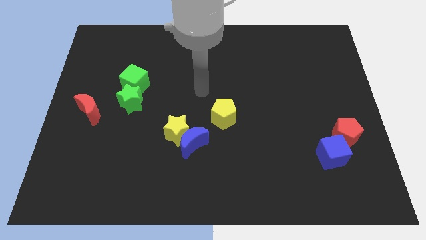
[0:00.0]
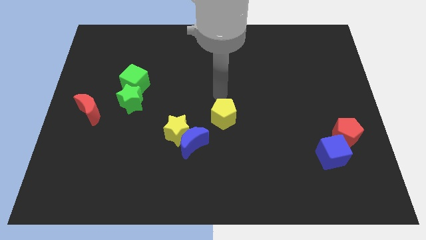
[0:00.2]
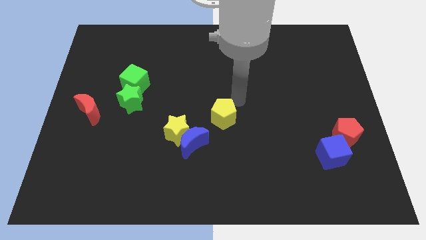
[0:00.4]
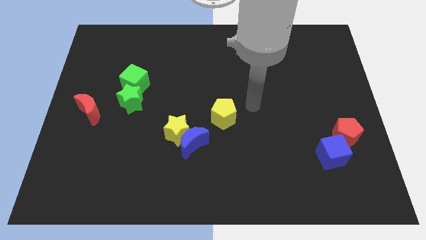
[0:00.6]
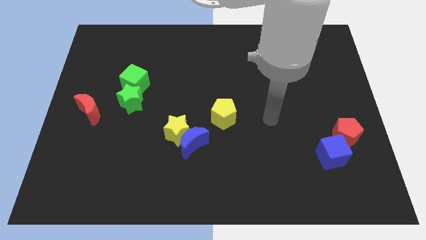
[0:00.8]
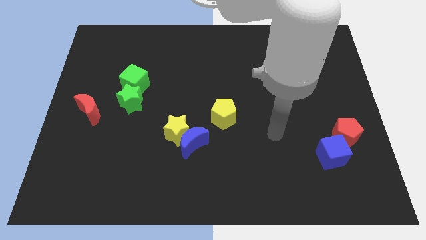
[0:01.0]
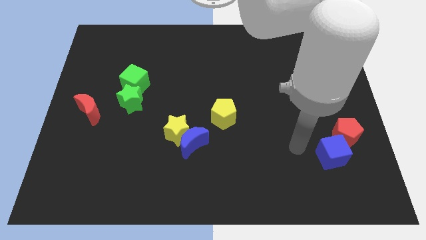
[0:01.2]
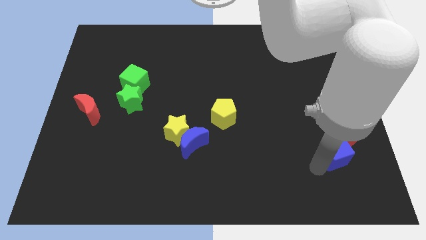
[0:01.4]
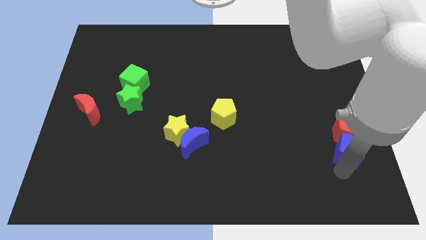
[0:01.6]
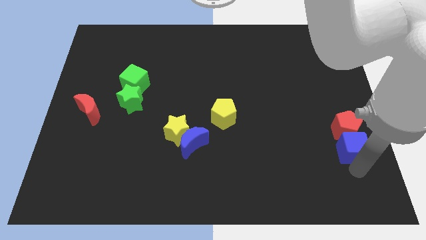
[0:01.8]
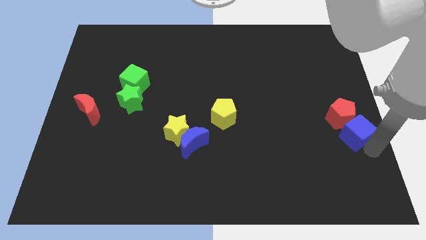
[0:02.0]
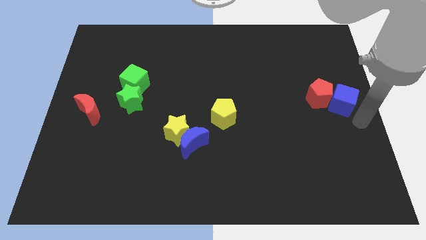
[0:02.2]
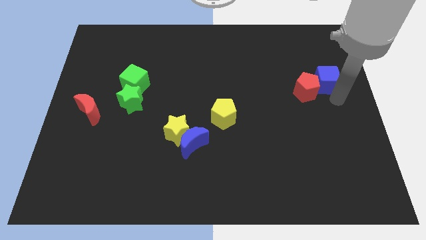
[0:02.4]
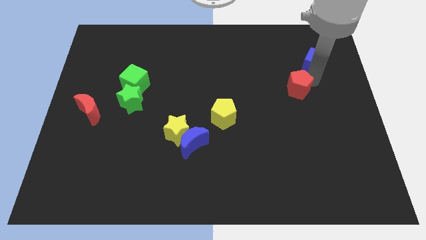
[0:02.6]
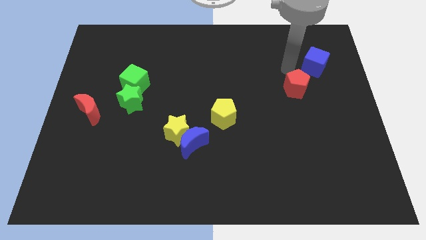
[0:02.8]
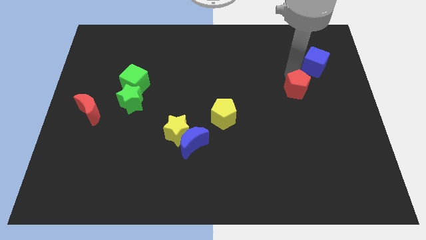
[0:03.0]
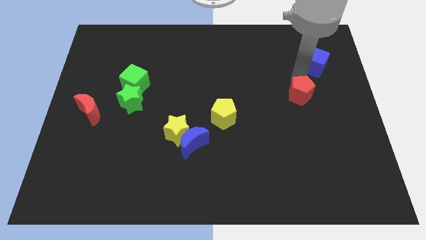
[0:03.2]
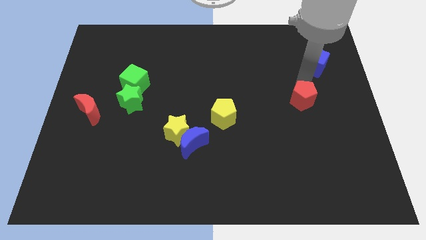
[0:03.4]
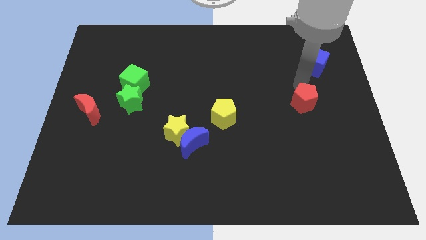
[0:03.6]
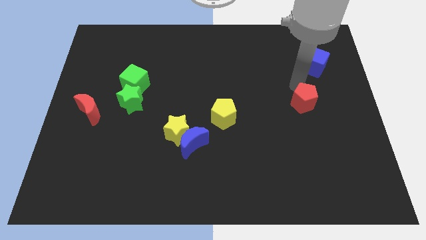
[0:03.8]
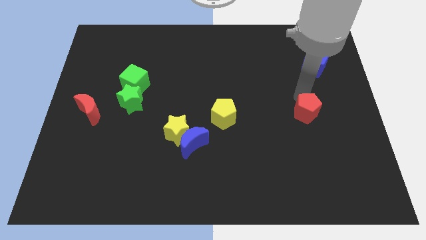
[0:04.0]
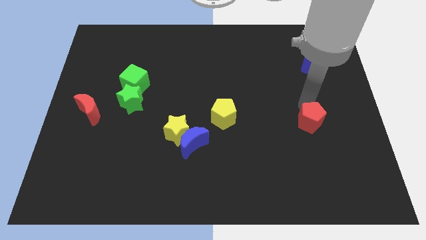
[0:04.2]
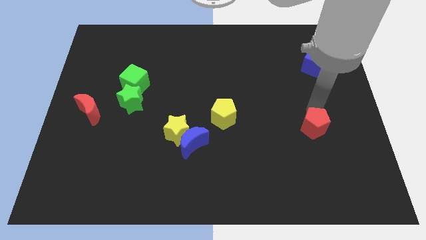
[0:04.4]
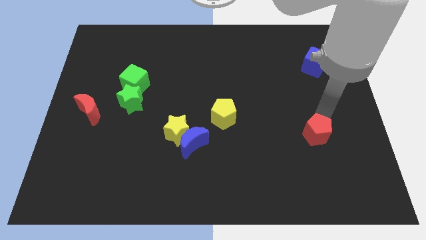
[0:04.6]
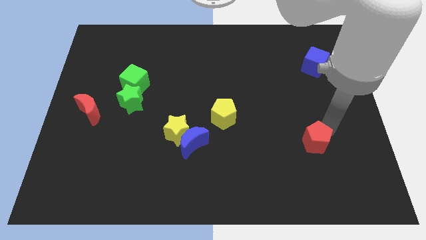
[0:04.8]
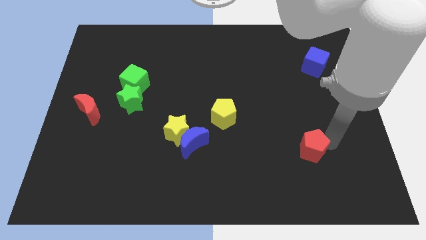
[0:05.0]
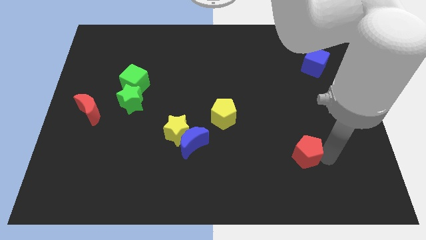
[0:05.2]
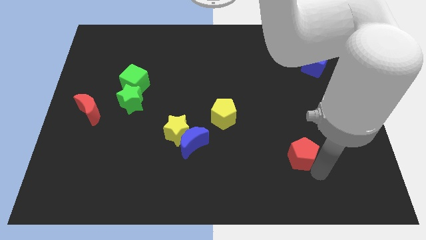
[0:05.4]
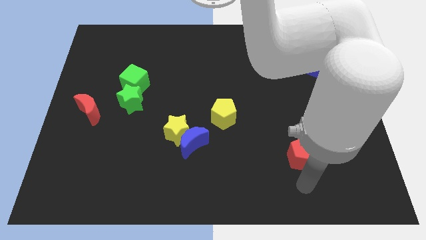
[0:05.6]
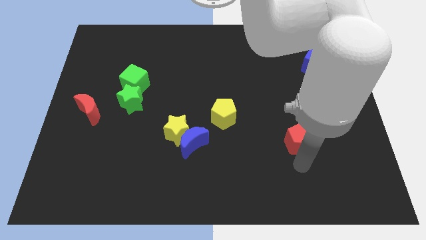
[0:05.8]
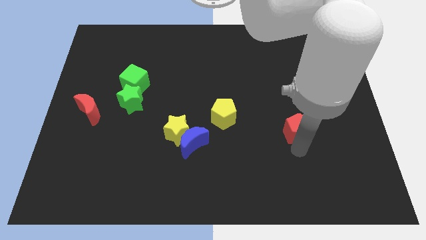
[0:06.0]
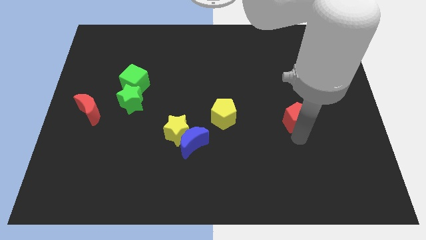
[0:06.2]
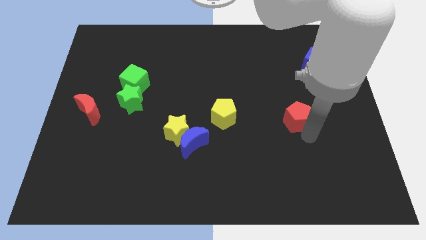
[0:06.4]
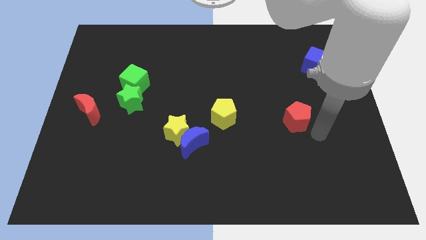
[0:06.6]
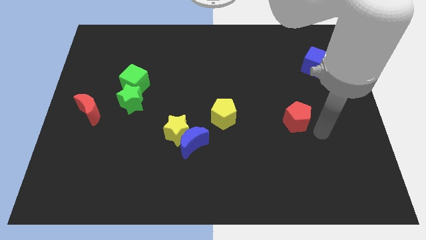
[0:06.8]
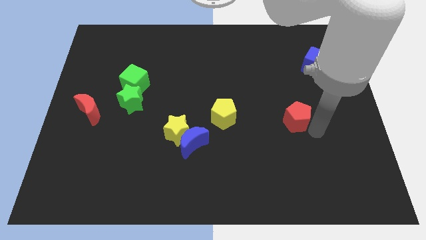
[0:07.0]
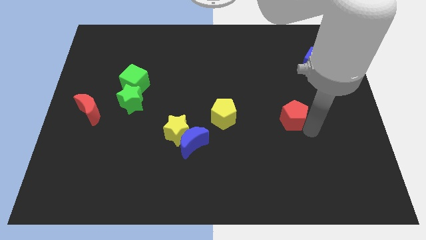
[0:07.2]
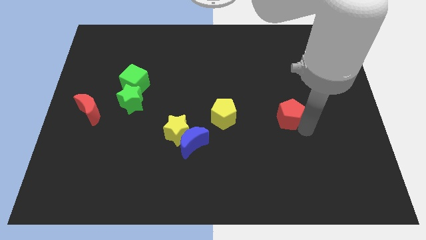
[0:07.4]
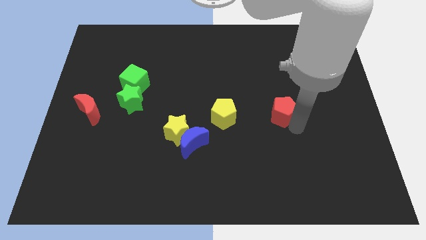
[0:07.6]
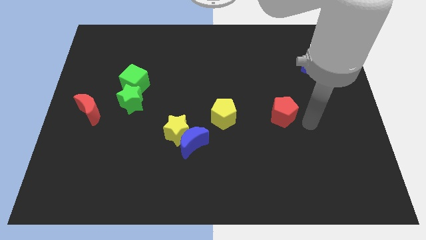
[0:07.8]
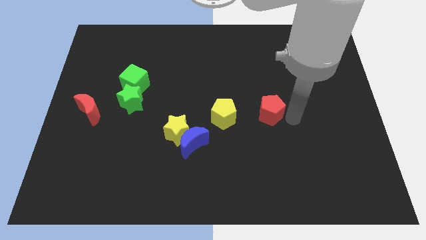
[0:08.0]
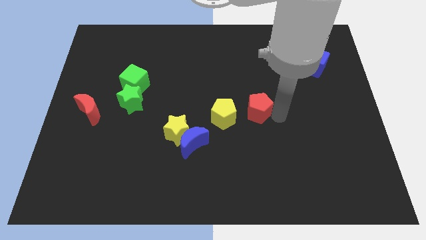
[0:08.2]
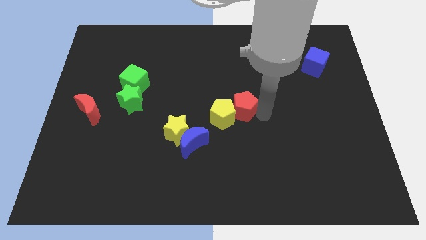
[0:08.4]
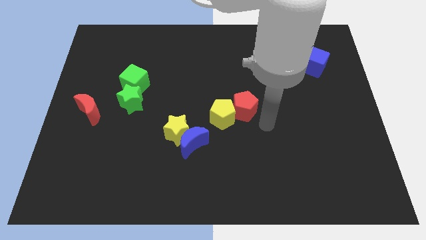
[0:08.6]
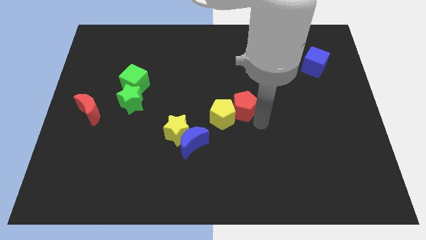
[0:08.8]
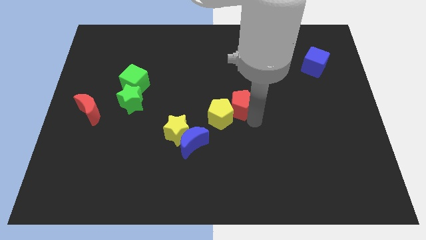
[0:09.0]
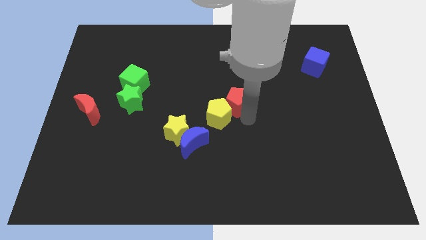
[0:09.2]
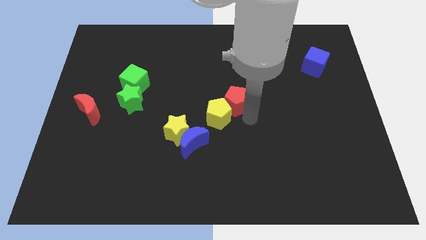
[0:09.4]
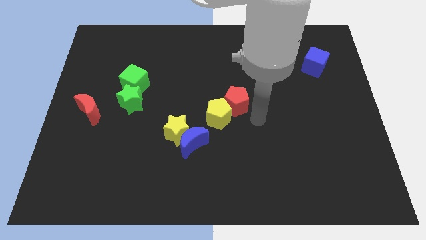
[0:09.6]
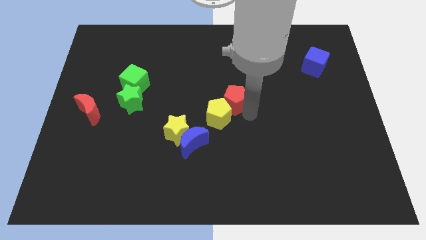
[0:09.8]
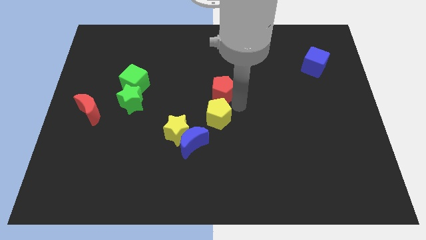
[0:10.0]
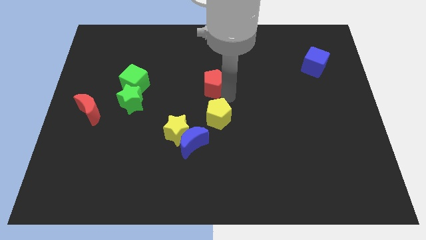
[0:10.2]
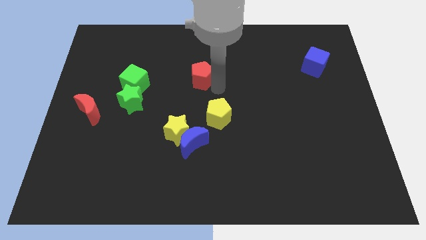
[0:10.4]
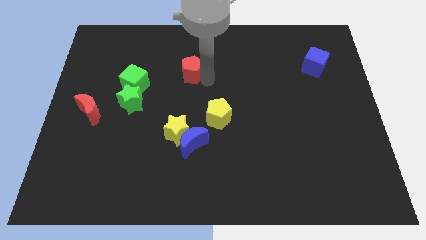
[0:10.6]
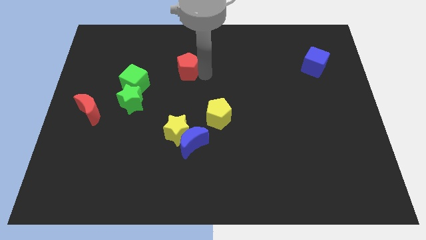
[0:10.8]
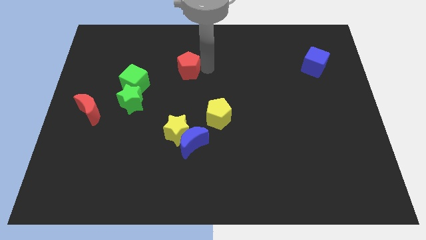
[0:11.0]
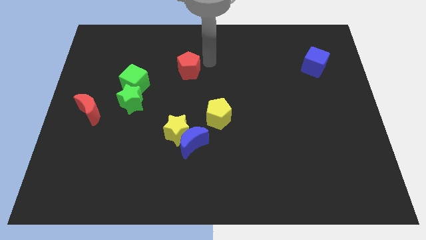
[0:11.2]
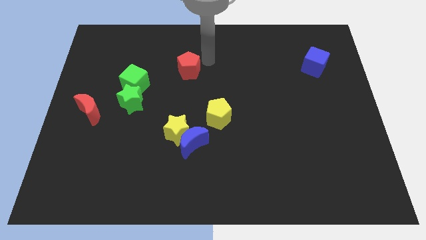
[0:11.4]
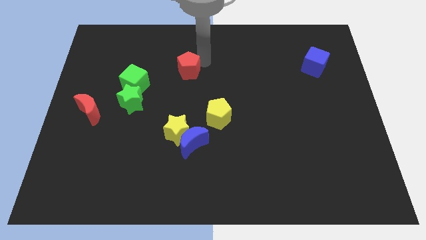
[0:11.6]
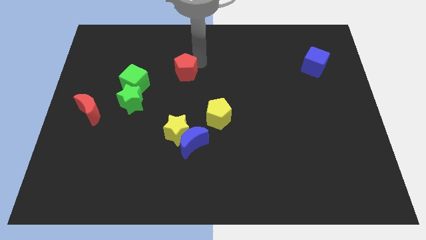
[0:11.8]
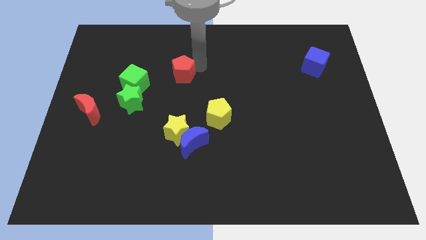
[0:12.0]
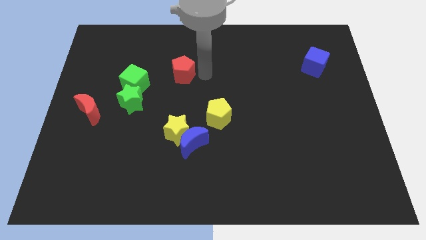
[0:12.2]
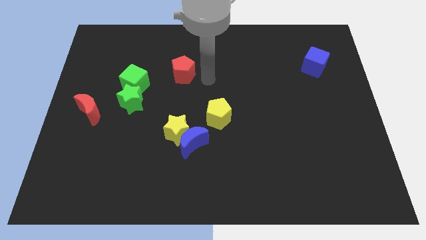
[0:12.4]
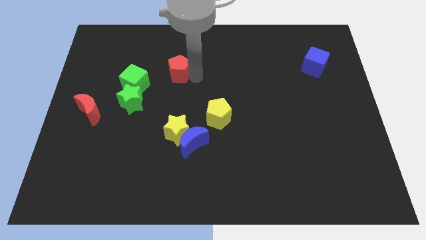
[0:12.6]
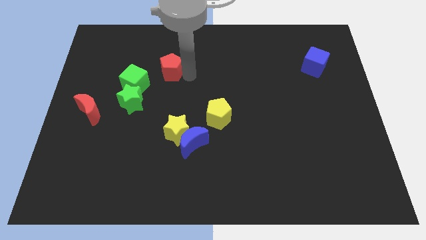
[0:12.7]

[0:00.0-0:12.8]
move the red pentagon to the top right side of the green cube

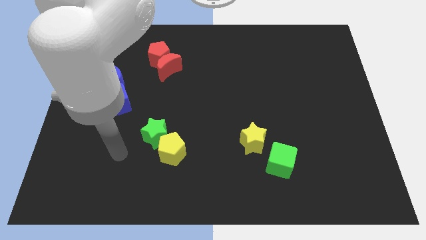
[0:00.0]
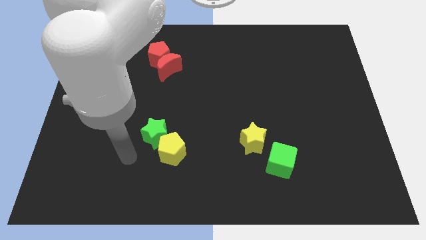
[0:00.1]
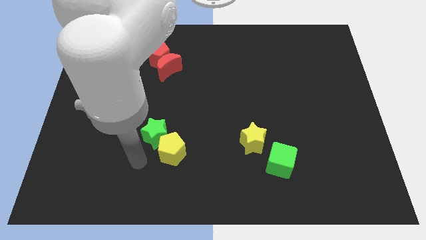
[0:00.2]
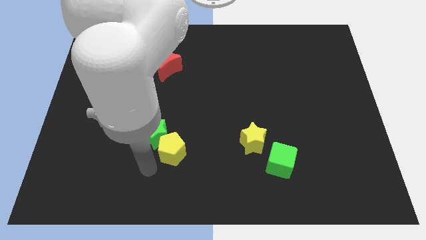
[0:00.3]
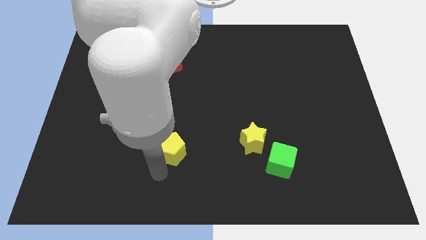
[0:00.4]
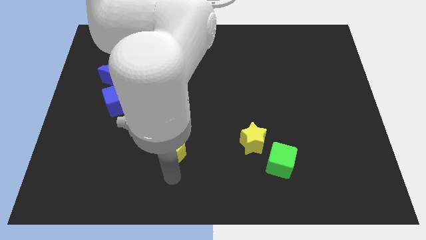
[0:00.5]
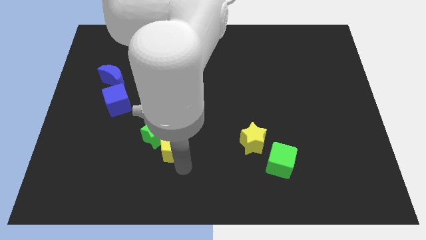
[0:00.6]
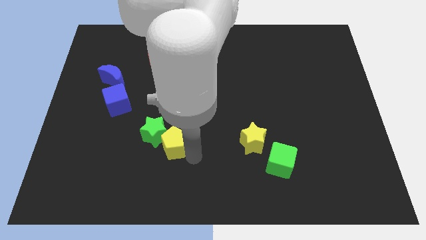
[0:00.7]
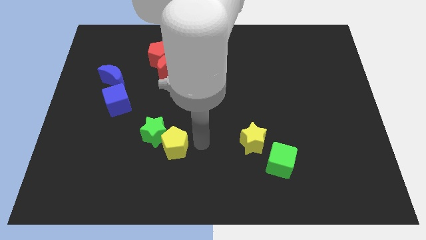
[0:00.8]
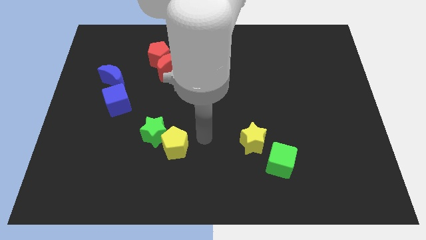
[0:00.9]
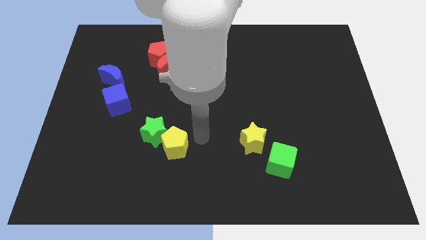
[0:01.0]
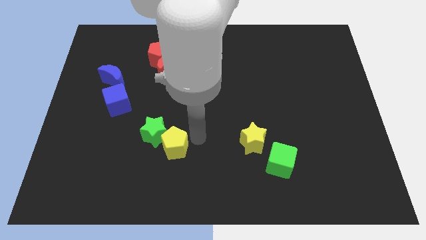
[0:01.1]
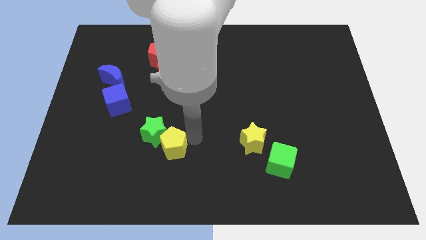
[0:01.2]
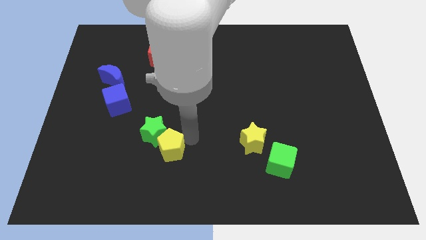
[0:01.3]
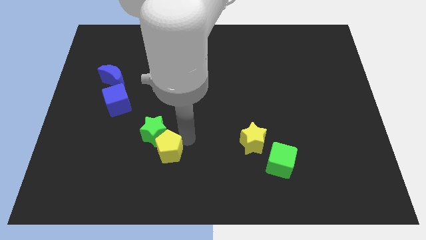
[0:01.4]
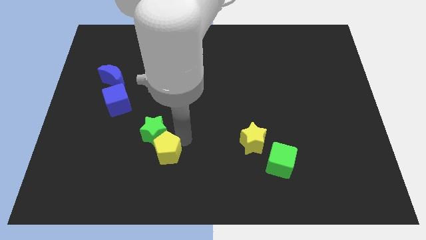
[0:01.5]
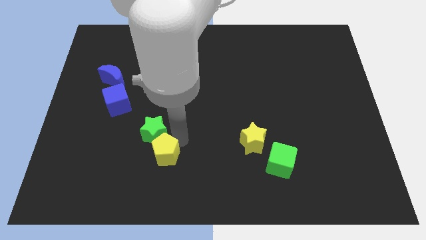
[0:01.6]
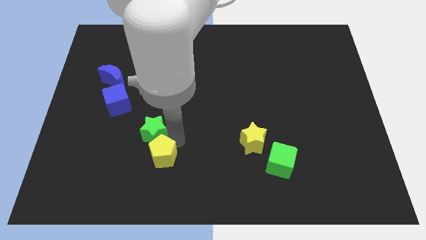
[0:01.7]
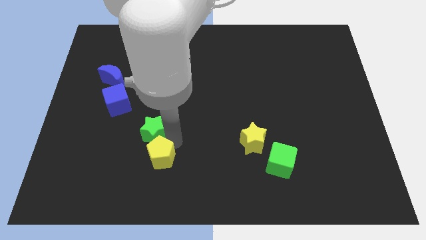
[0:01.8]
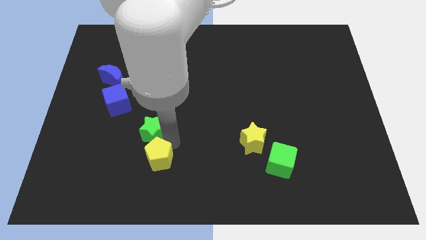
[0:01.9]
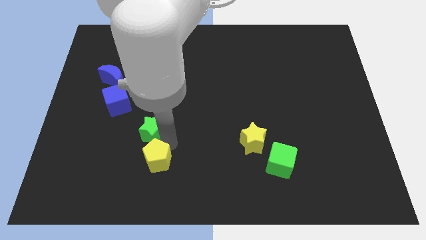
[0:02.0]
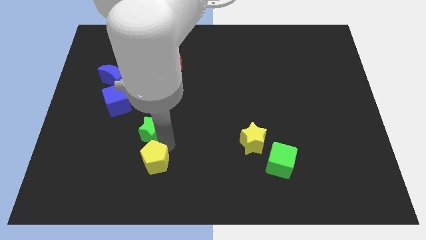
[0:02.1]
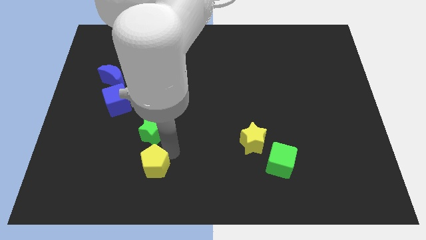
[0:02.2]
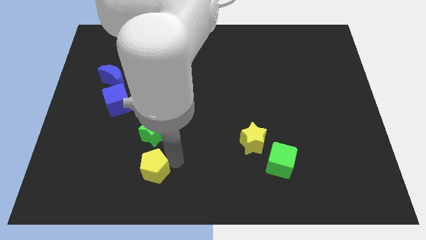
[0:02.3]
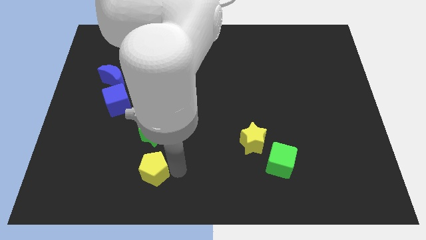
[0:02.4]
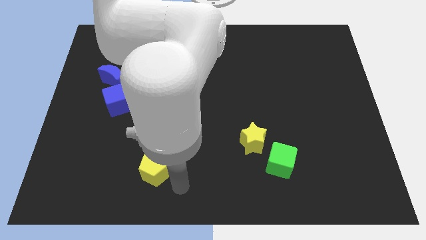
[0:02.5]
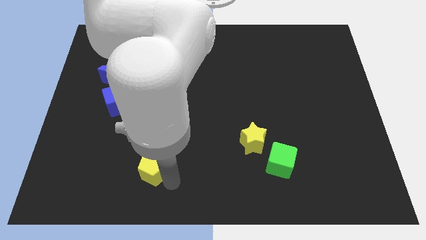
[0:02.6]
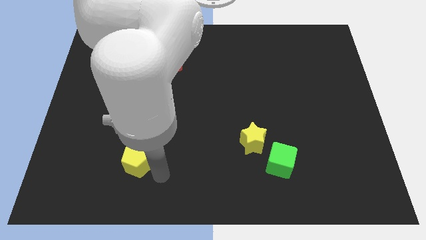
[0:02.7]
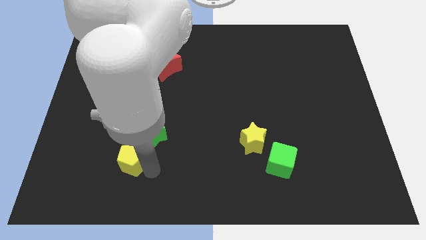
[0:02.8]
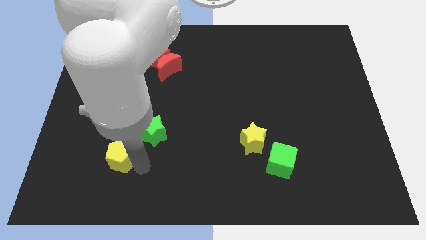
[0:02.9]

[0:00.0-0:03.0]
push the yellow pentagon to the bottom side of the blue cube
